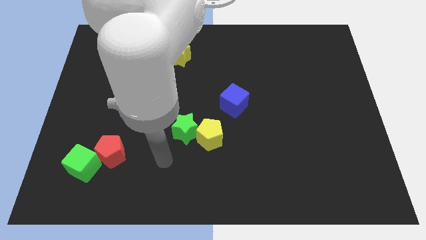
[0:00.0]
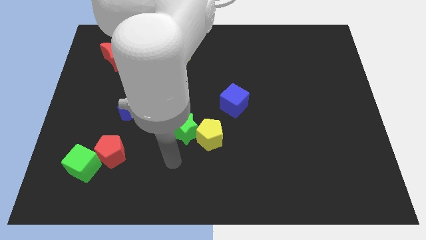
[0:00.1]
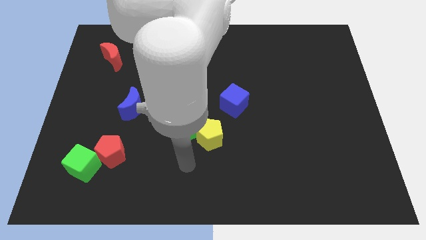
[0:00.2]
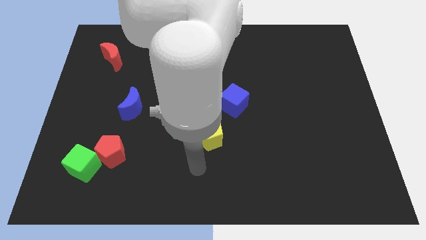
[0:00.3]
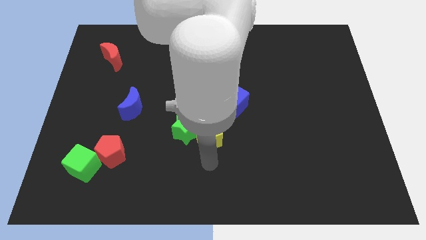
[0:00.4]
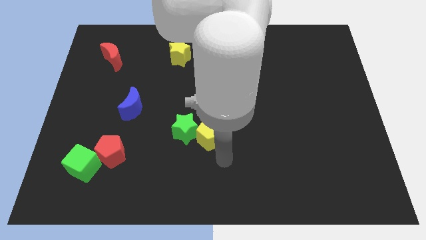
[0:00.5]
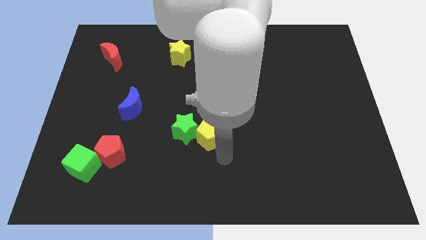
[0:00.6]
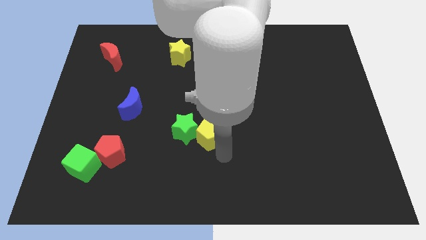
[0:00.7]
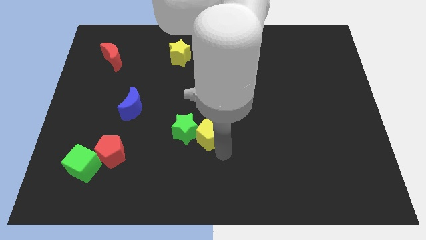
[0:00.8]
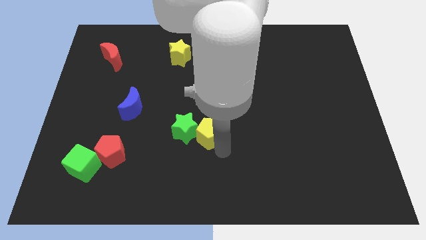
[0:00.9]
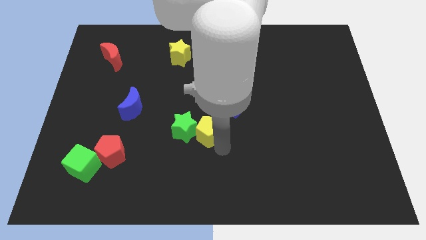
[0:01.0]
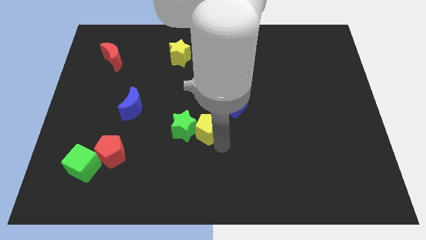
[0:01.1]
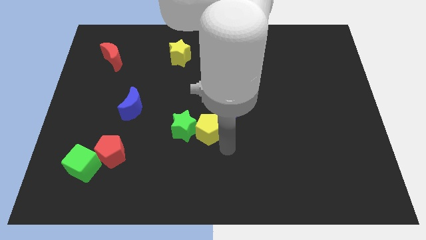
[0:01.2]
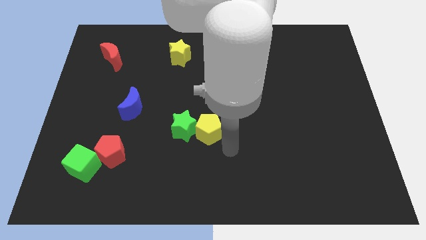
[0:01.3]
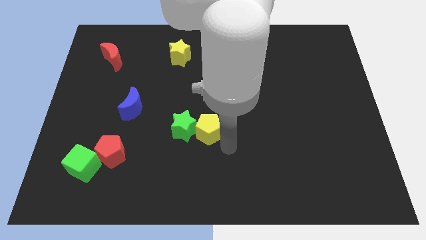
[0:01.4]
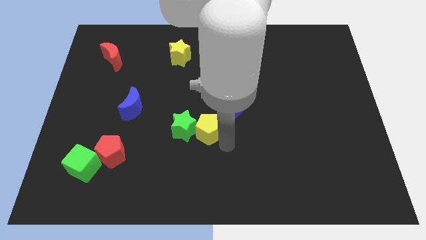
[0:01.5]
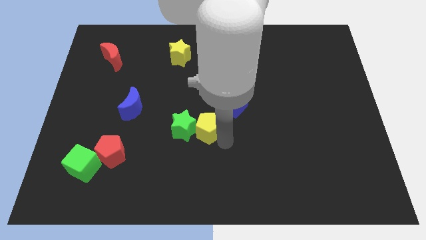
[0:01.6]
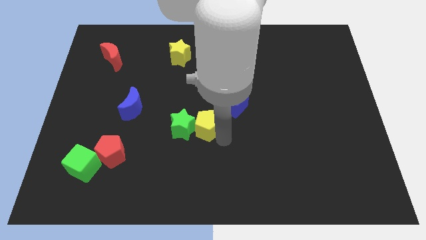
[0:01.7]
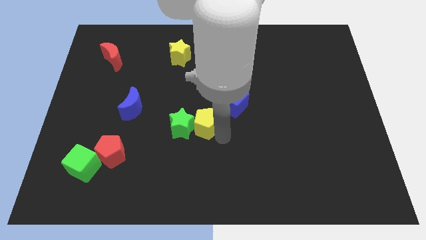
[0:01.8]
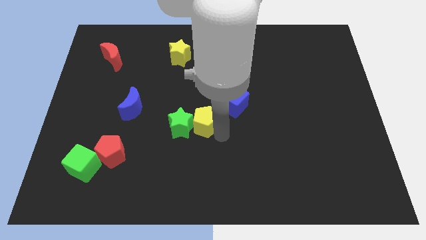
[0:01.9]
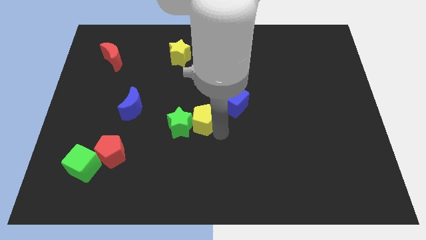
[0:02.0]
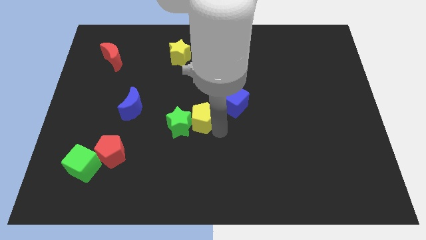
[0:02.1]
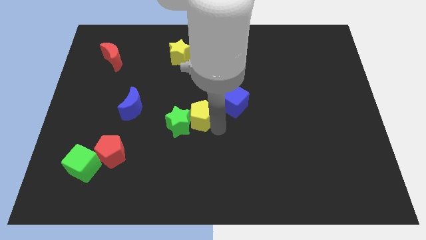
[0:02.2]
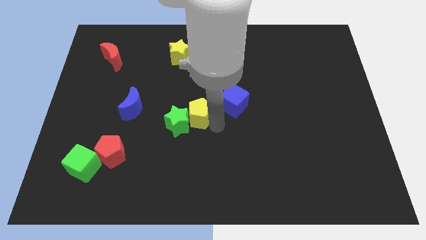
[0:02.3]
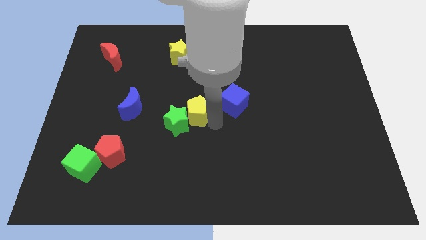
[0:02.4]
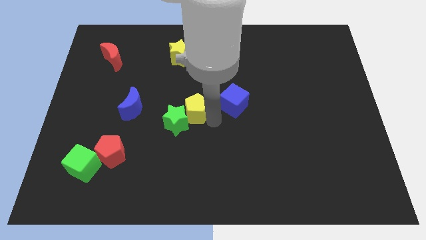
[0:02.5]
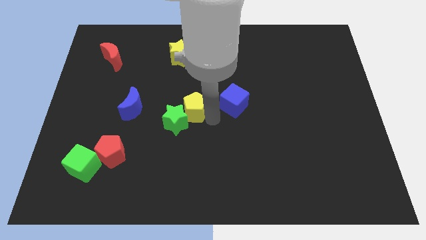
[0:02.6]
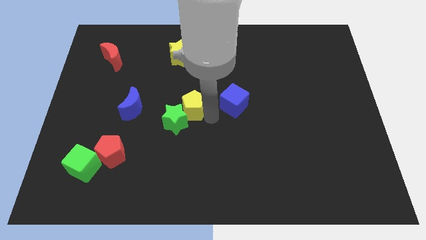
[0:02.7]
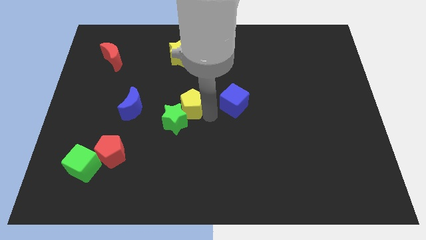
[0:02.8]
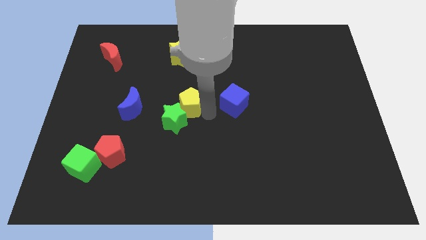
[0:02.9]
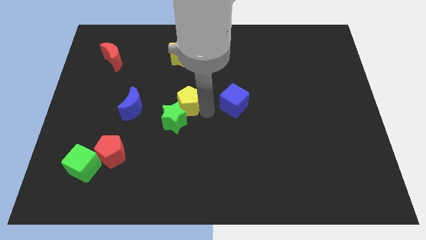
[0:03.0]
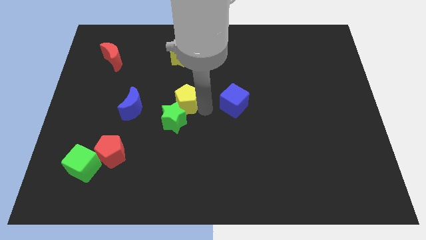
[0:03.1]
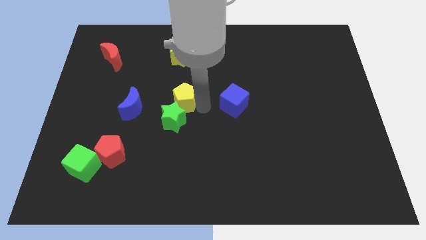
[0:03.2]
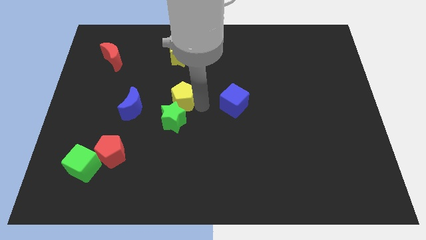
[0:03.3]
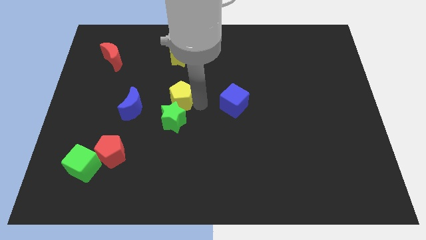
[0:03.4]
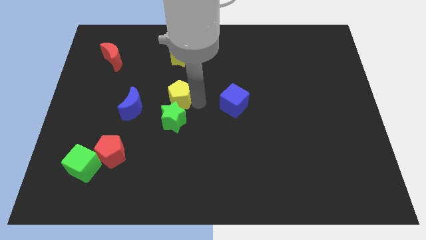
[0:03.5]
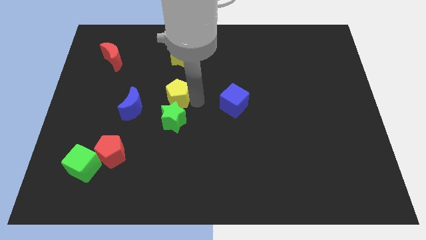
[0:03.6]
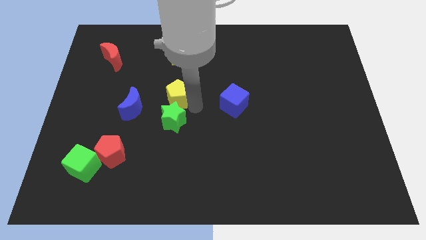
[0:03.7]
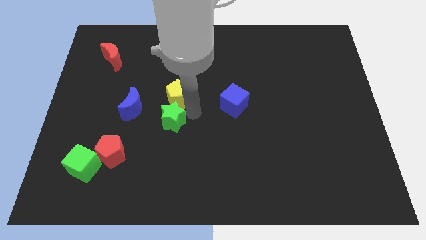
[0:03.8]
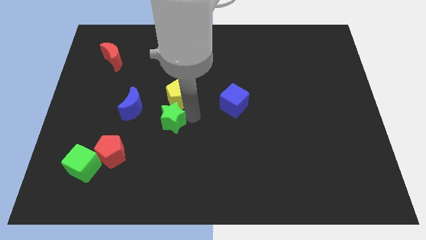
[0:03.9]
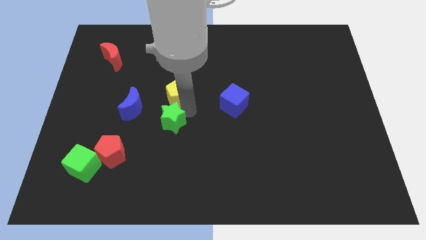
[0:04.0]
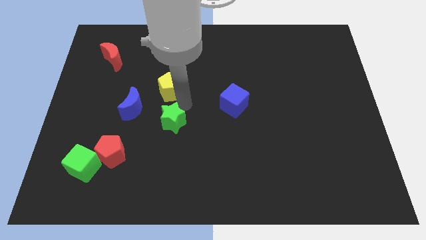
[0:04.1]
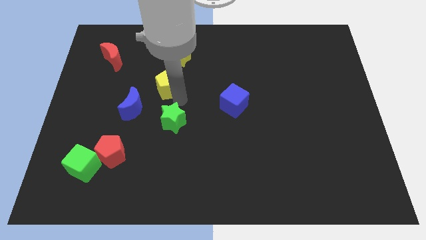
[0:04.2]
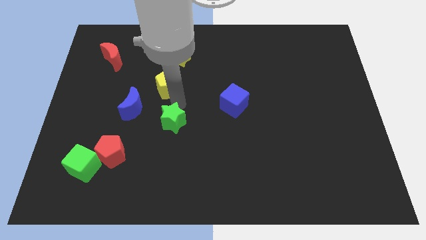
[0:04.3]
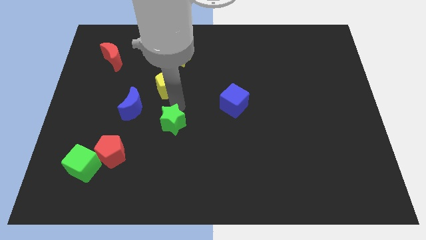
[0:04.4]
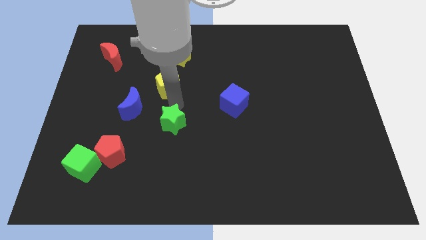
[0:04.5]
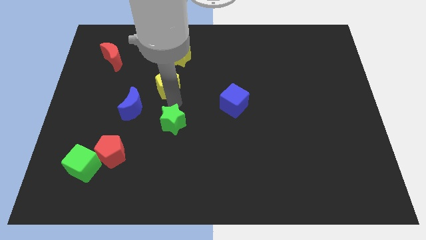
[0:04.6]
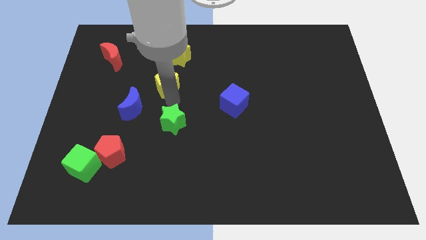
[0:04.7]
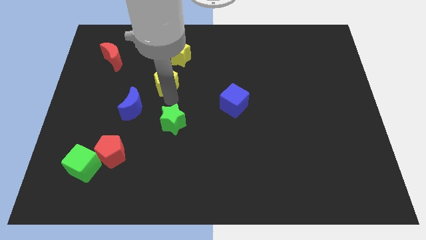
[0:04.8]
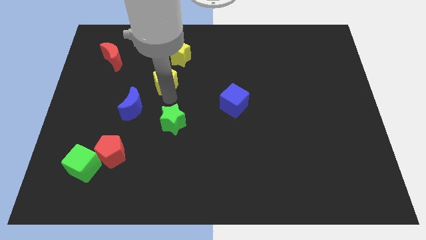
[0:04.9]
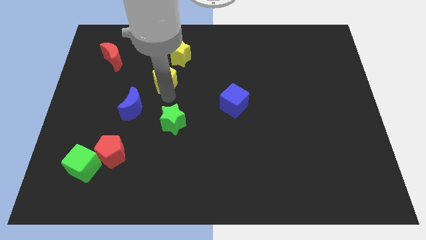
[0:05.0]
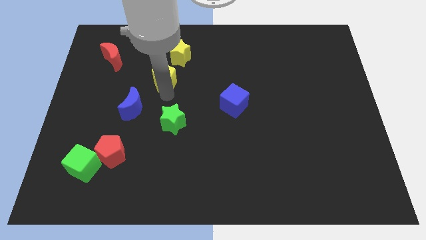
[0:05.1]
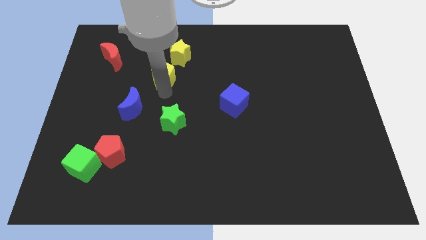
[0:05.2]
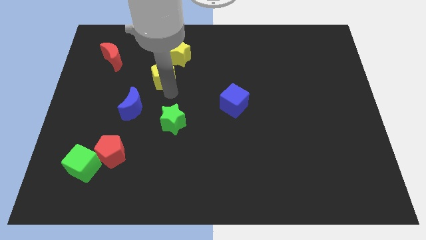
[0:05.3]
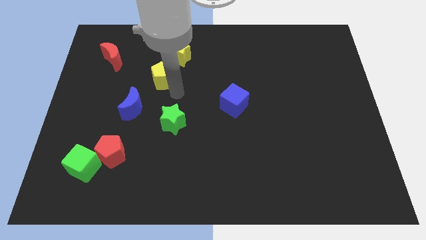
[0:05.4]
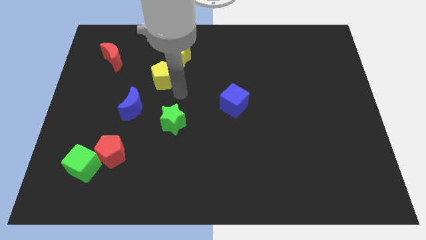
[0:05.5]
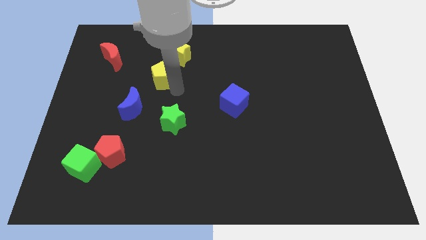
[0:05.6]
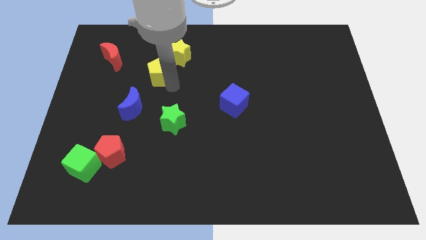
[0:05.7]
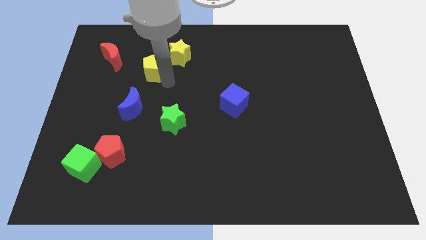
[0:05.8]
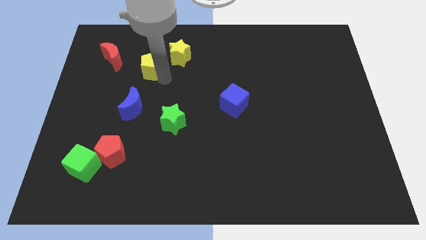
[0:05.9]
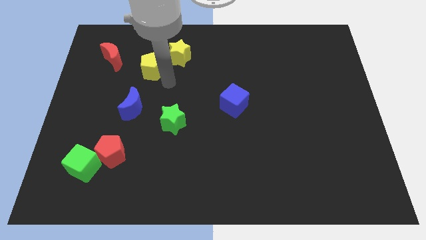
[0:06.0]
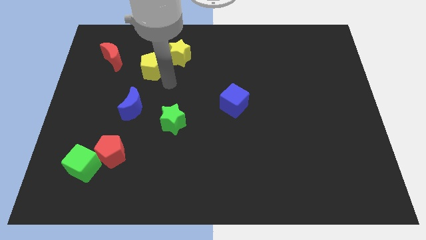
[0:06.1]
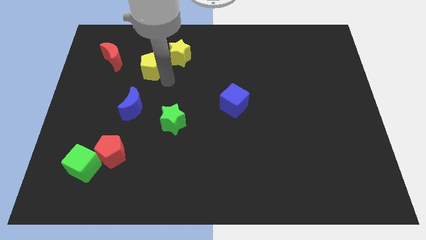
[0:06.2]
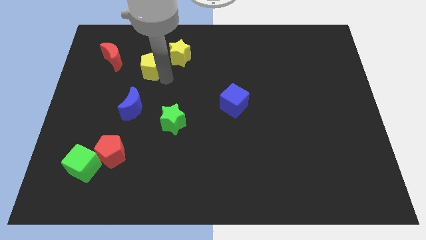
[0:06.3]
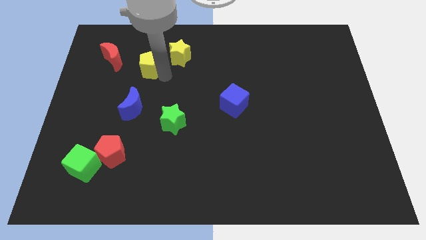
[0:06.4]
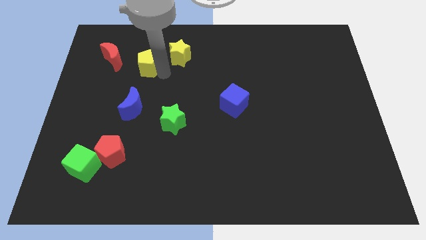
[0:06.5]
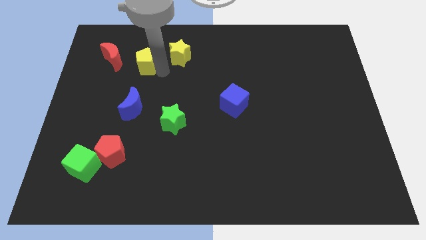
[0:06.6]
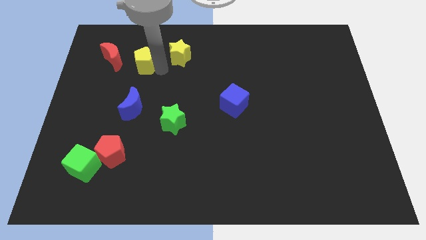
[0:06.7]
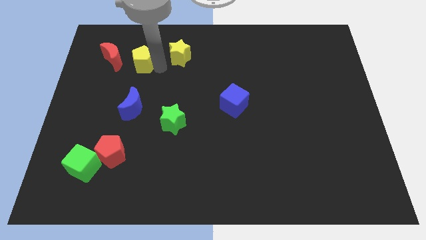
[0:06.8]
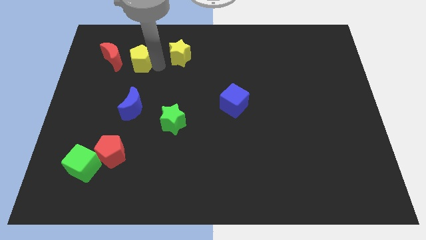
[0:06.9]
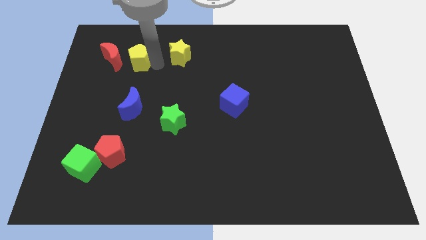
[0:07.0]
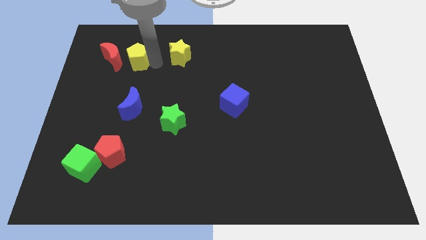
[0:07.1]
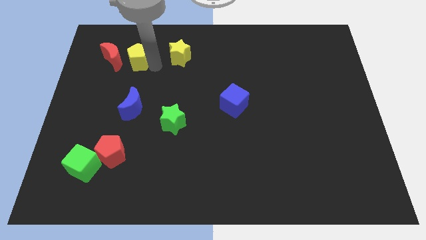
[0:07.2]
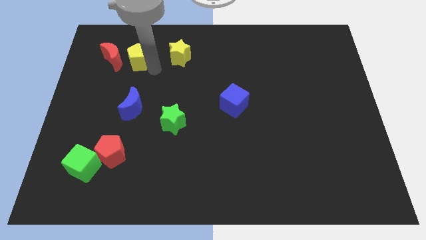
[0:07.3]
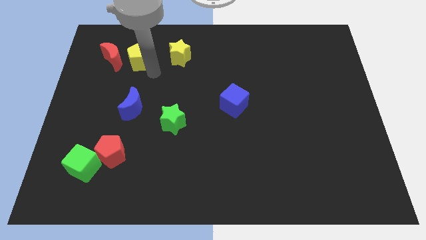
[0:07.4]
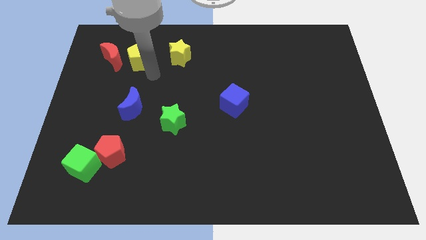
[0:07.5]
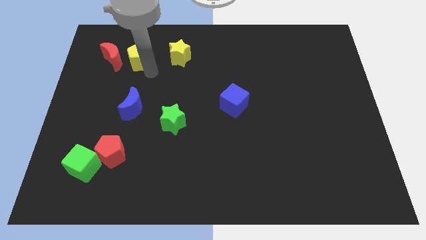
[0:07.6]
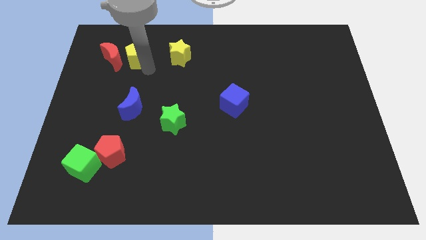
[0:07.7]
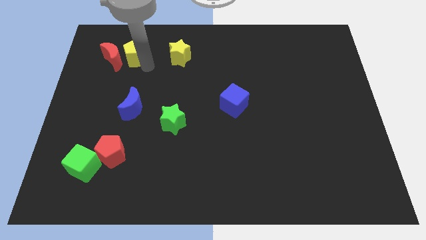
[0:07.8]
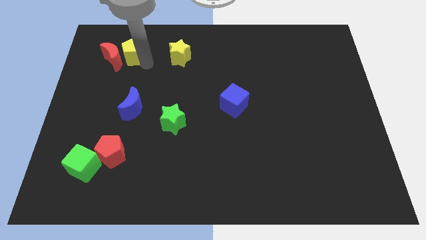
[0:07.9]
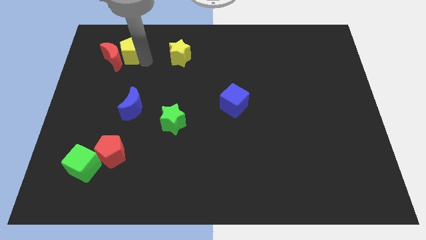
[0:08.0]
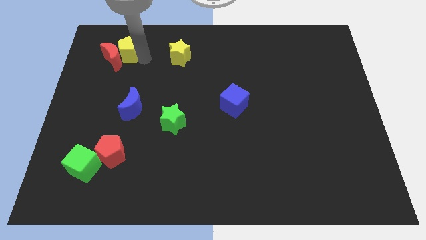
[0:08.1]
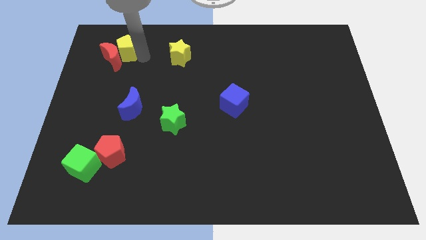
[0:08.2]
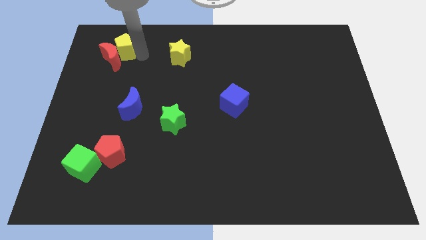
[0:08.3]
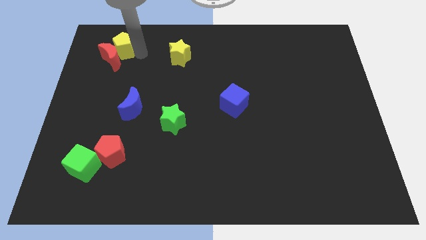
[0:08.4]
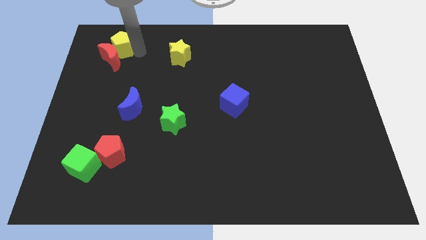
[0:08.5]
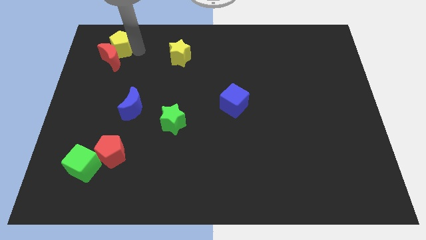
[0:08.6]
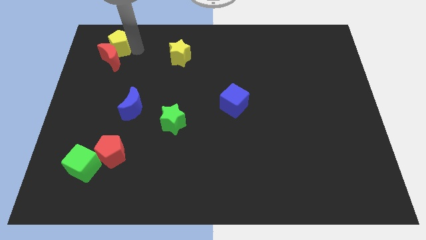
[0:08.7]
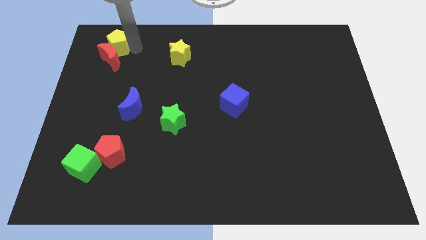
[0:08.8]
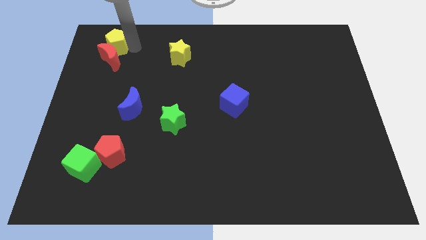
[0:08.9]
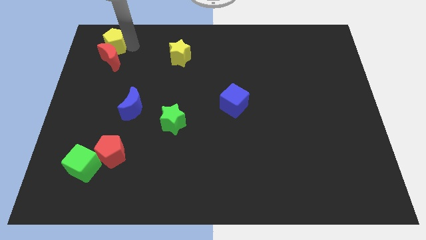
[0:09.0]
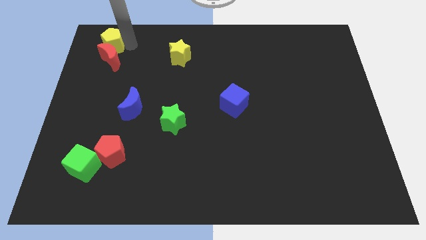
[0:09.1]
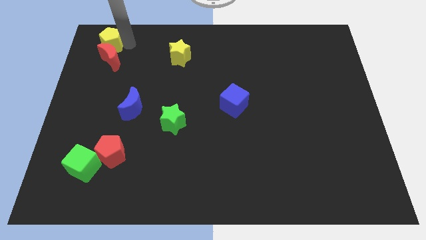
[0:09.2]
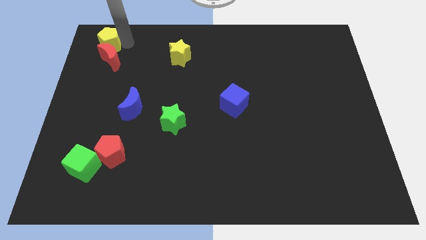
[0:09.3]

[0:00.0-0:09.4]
put the yellow pentagon to the upper left corner
